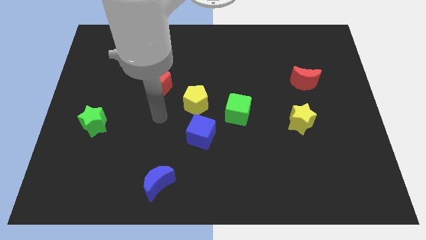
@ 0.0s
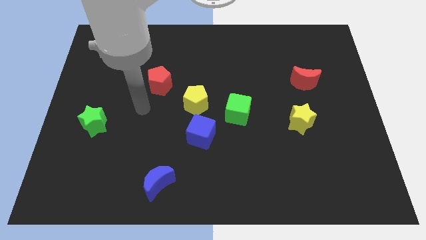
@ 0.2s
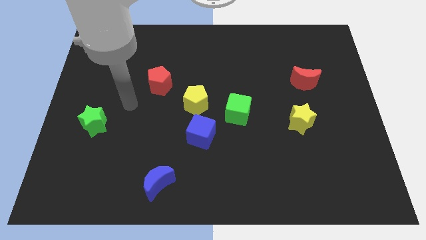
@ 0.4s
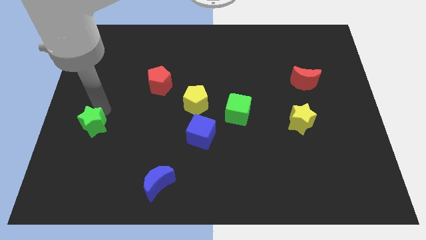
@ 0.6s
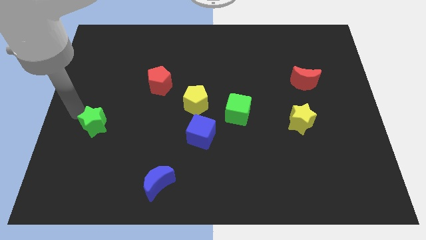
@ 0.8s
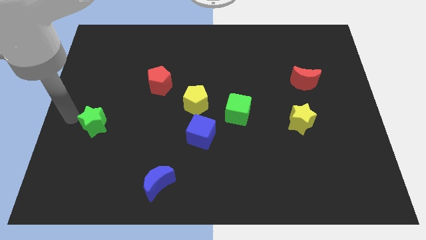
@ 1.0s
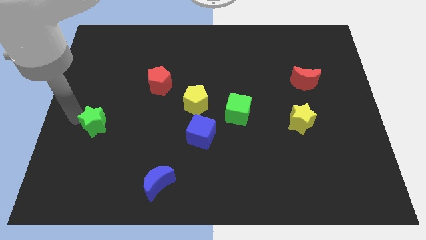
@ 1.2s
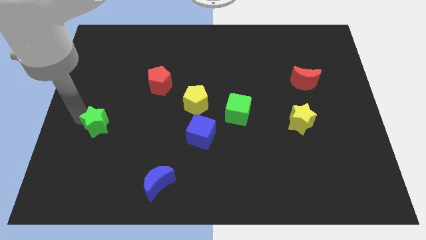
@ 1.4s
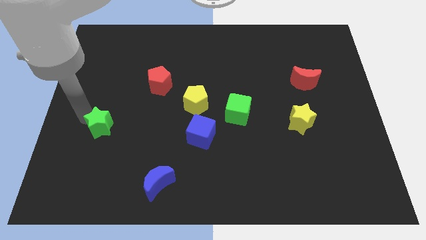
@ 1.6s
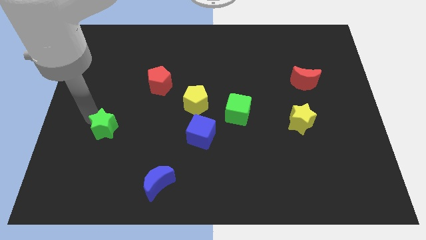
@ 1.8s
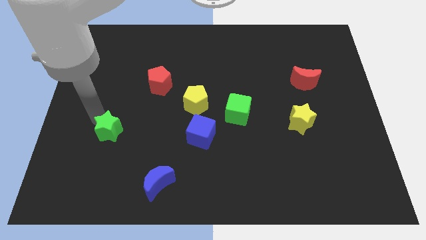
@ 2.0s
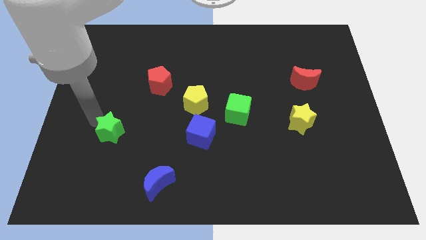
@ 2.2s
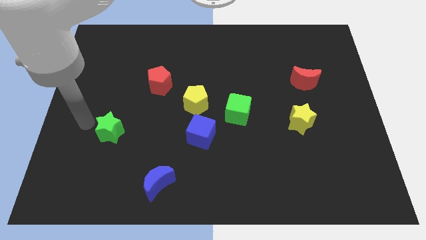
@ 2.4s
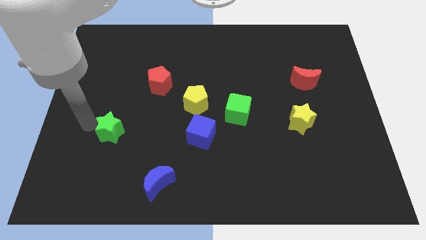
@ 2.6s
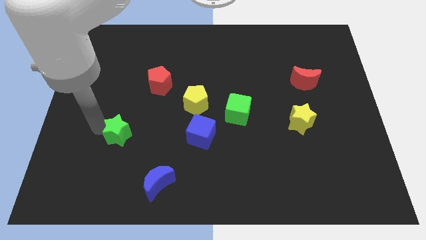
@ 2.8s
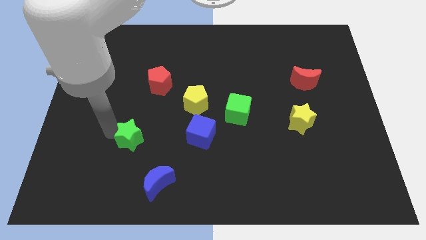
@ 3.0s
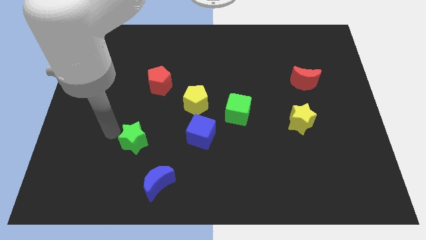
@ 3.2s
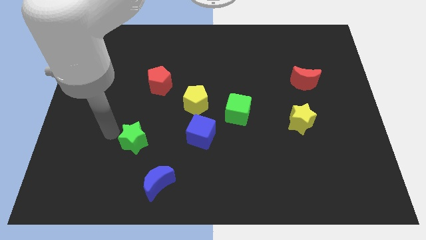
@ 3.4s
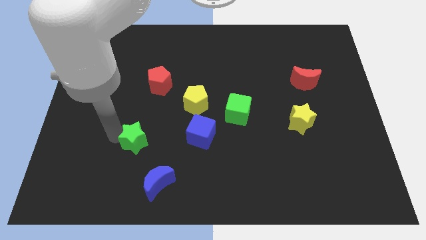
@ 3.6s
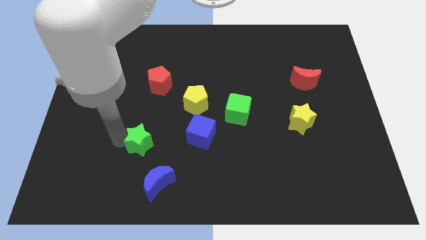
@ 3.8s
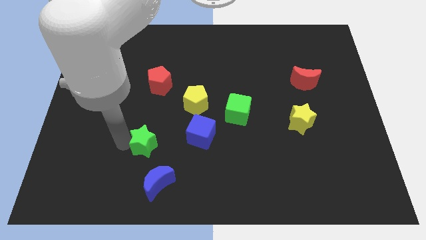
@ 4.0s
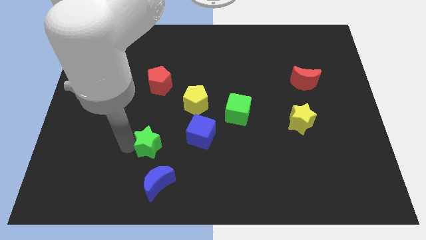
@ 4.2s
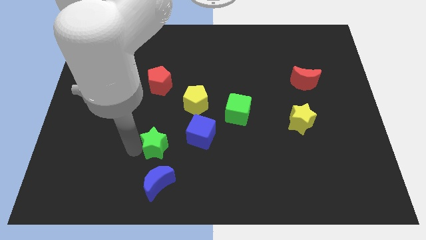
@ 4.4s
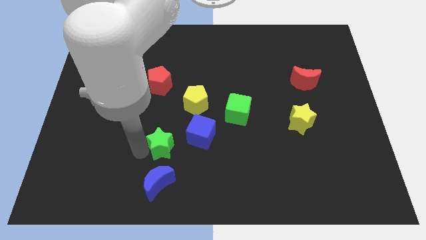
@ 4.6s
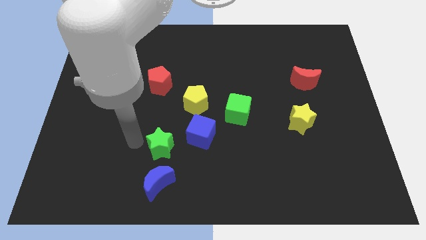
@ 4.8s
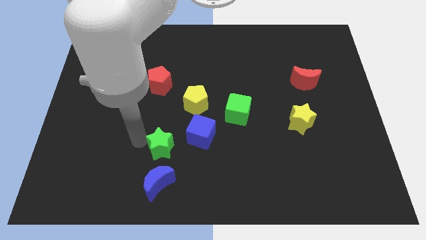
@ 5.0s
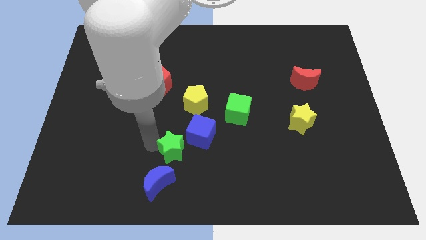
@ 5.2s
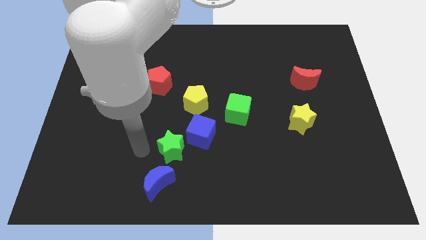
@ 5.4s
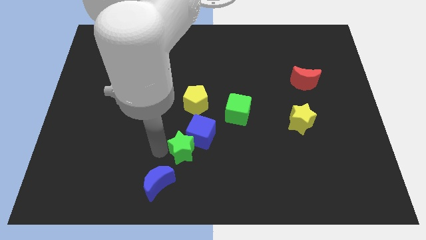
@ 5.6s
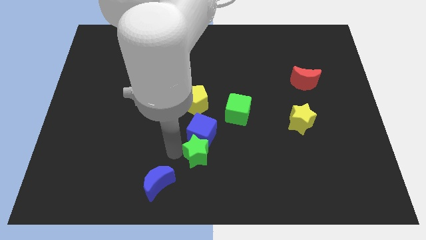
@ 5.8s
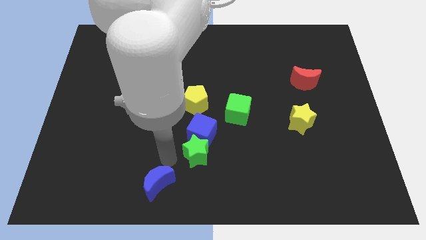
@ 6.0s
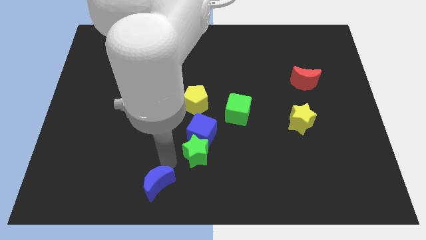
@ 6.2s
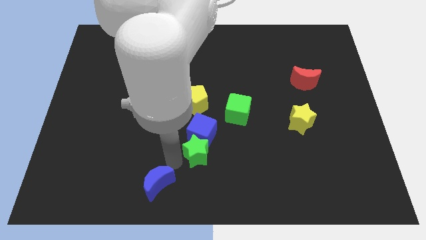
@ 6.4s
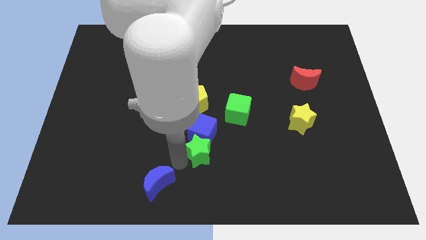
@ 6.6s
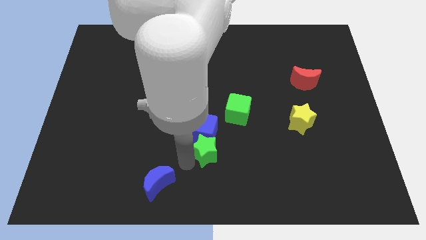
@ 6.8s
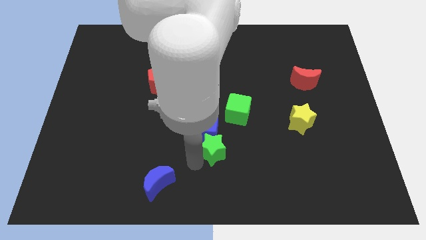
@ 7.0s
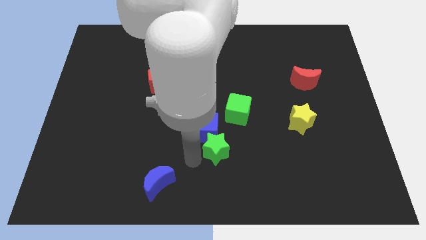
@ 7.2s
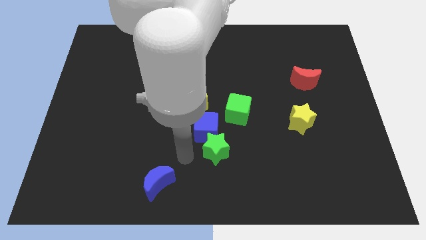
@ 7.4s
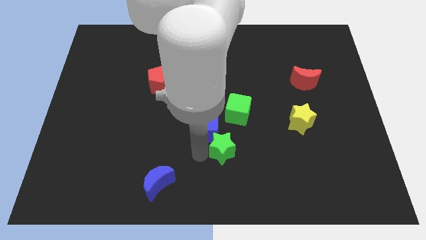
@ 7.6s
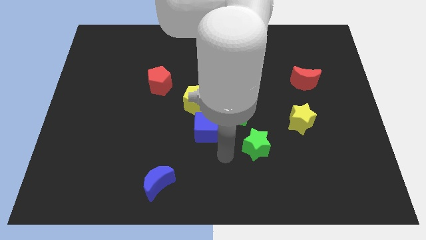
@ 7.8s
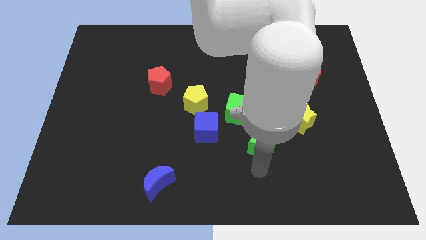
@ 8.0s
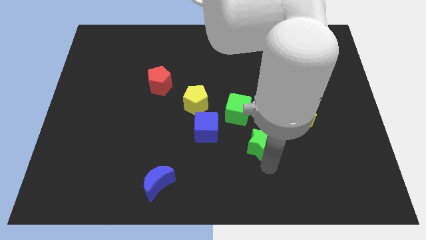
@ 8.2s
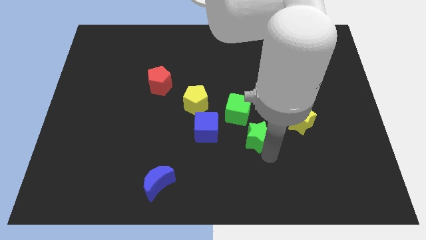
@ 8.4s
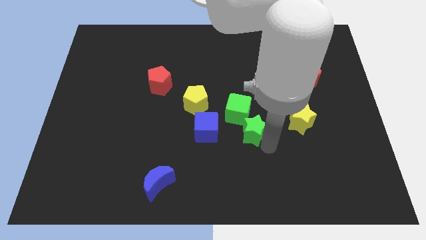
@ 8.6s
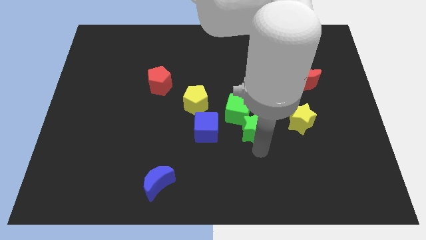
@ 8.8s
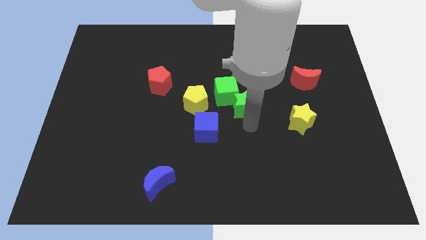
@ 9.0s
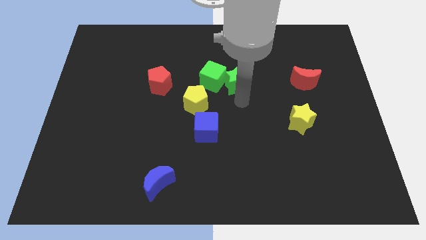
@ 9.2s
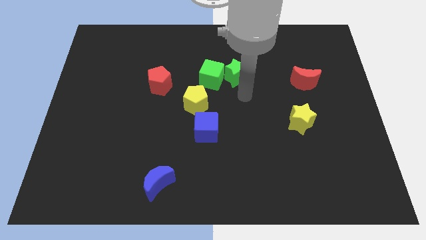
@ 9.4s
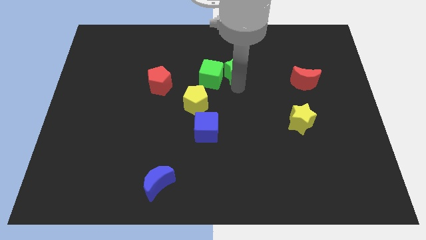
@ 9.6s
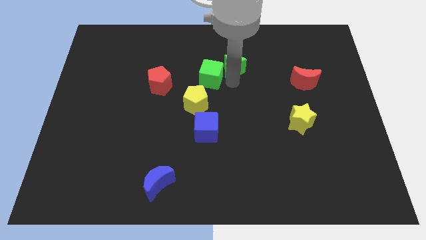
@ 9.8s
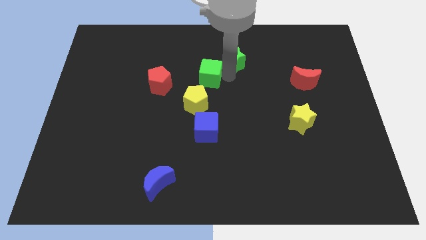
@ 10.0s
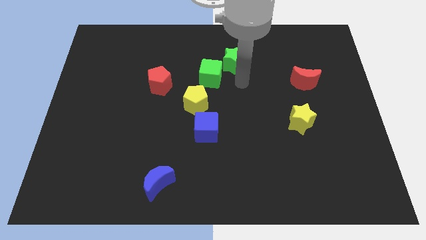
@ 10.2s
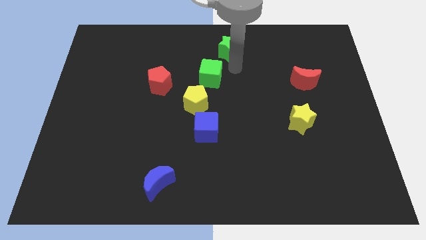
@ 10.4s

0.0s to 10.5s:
move the green star to the top side

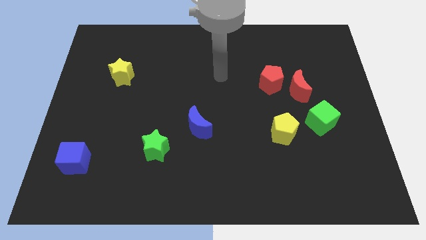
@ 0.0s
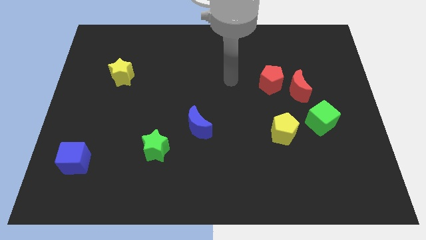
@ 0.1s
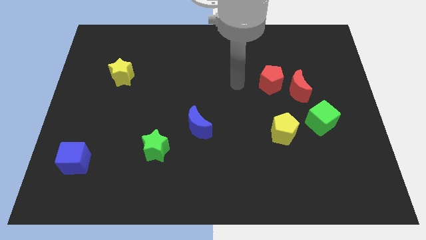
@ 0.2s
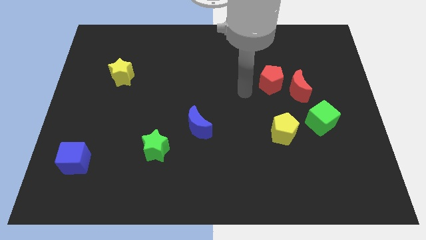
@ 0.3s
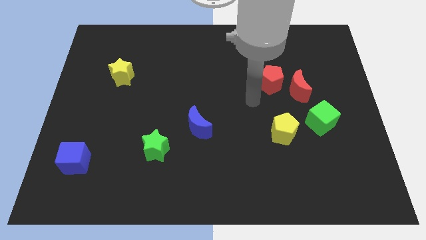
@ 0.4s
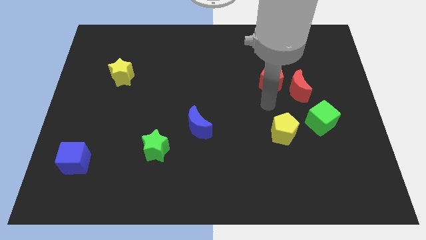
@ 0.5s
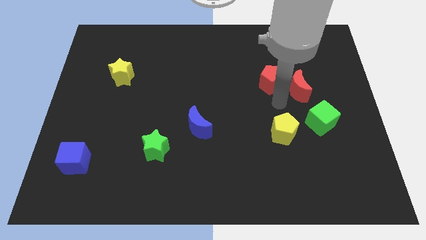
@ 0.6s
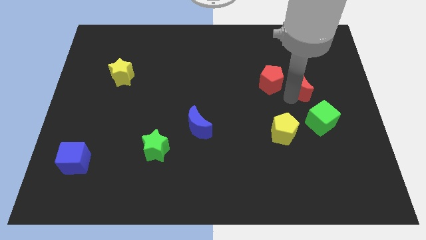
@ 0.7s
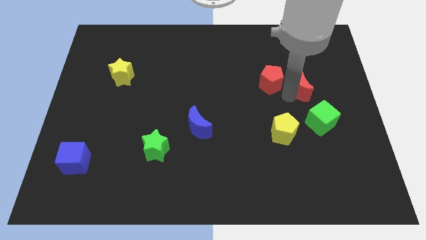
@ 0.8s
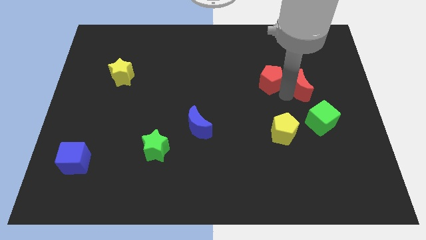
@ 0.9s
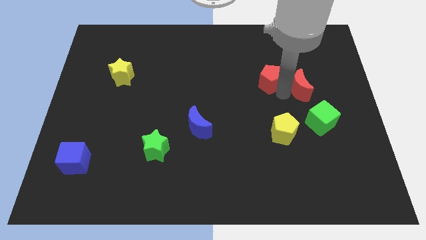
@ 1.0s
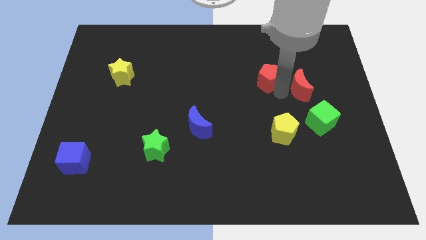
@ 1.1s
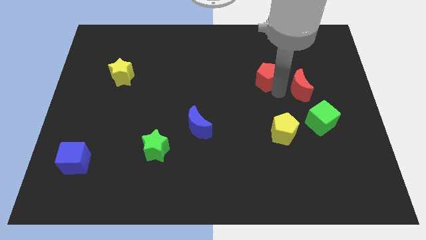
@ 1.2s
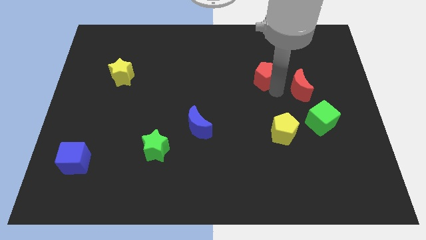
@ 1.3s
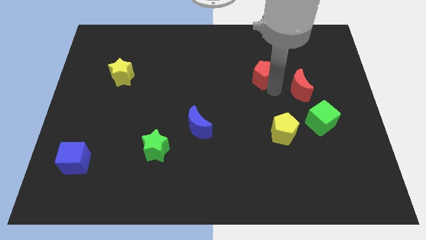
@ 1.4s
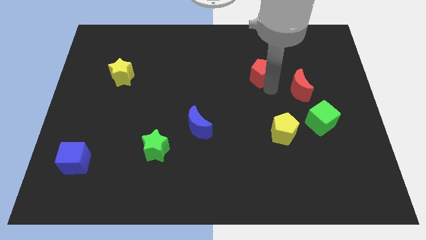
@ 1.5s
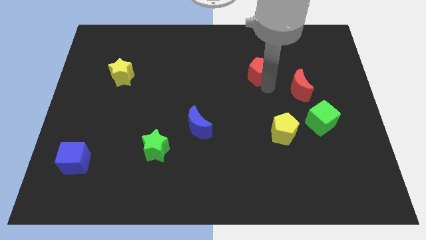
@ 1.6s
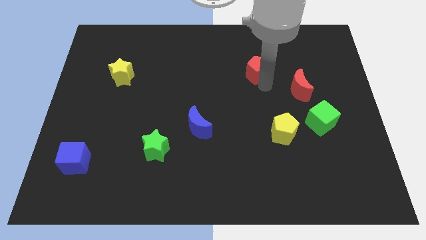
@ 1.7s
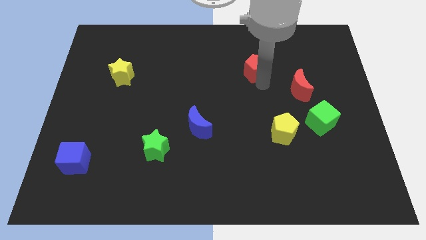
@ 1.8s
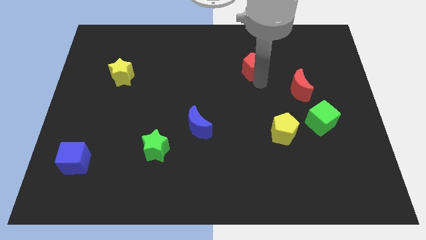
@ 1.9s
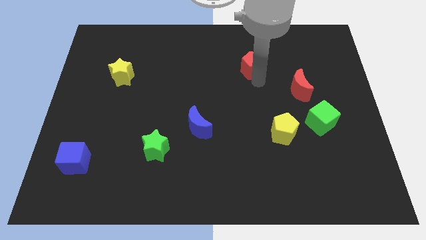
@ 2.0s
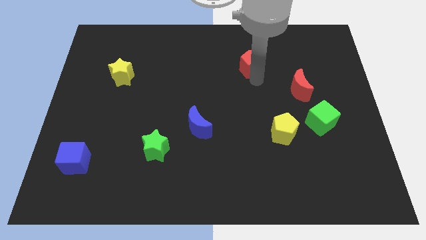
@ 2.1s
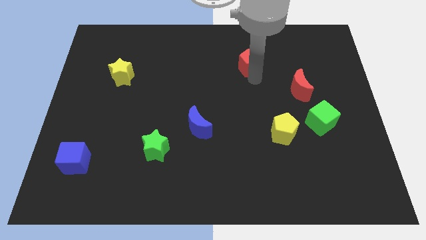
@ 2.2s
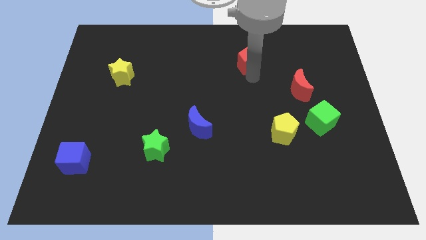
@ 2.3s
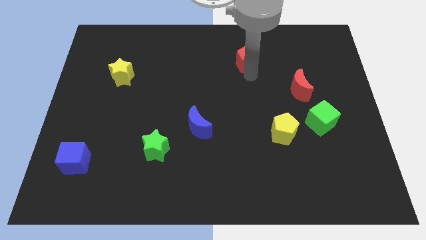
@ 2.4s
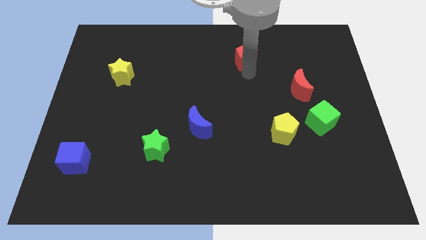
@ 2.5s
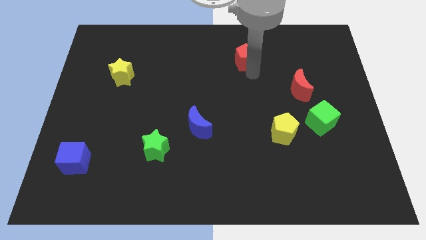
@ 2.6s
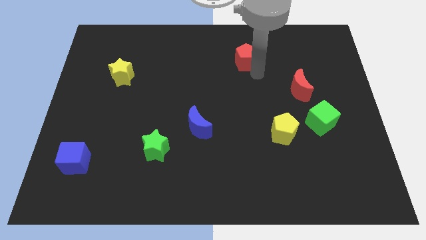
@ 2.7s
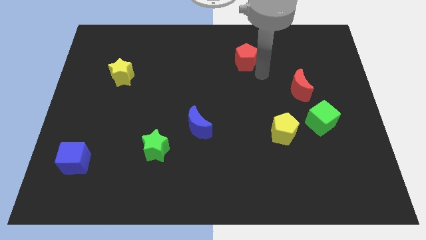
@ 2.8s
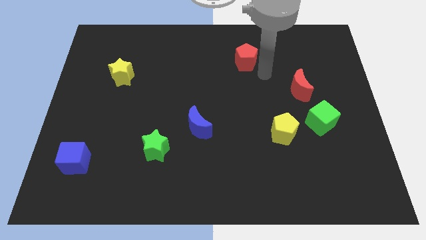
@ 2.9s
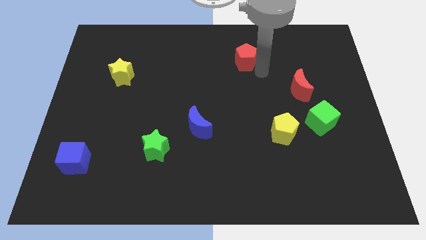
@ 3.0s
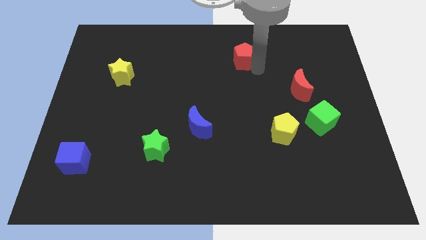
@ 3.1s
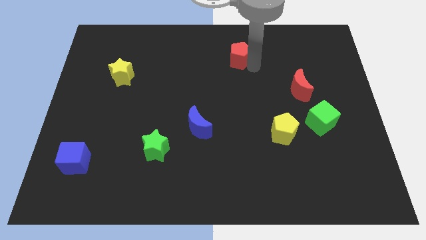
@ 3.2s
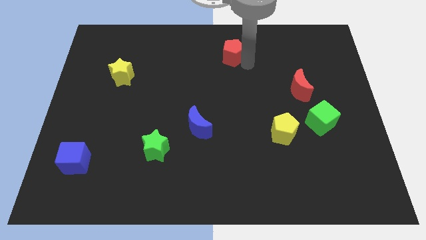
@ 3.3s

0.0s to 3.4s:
push the red pentagon to the towards your base
